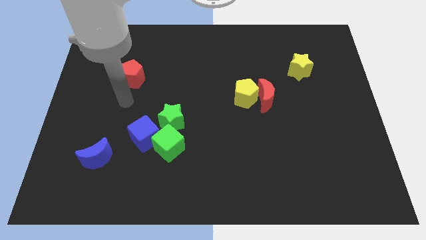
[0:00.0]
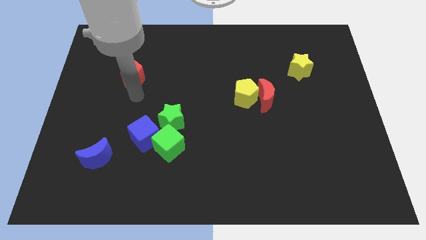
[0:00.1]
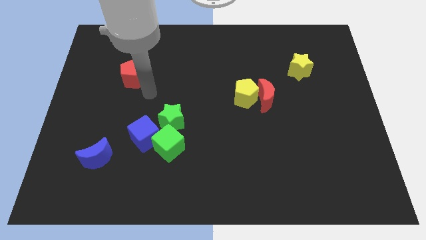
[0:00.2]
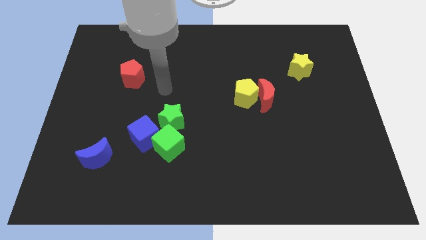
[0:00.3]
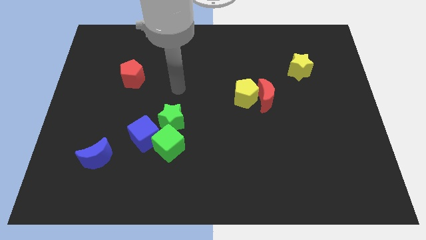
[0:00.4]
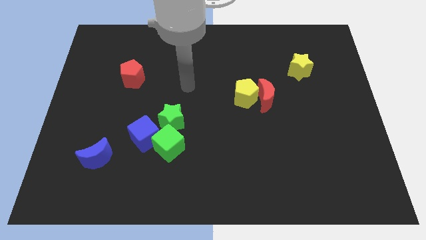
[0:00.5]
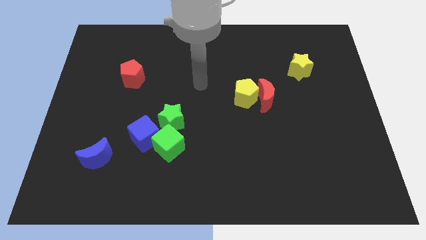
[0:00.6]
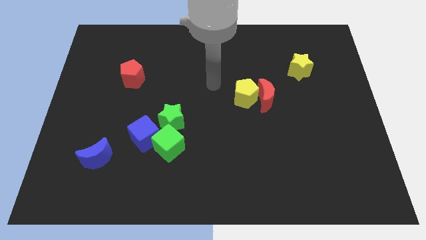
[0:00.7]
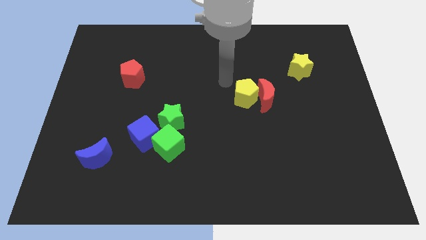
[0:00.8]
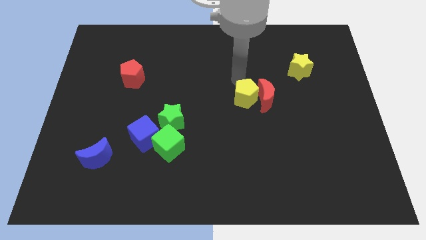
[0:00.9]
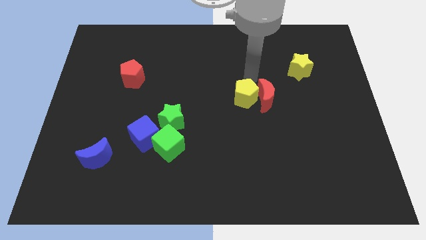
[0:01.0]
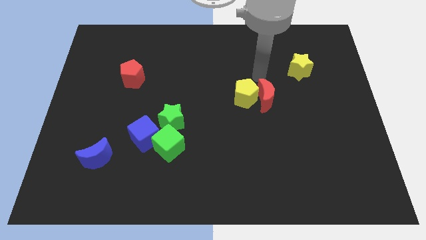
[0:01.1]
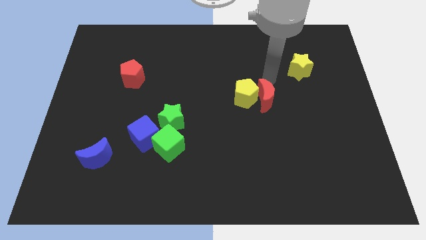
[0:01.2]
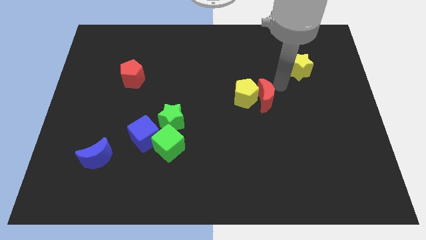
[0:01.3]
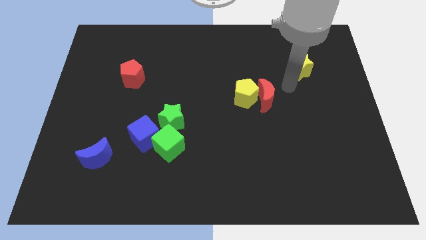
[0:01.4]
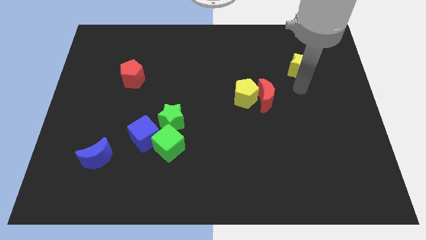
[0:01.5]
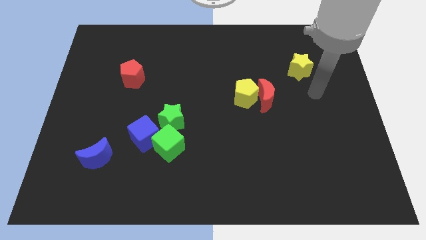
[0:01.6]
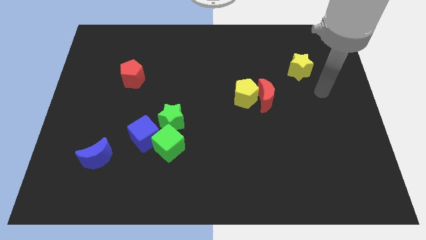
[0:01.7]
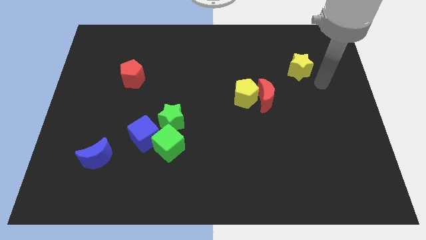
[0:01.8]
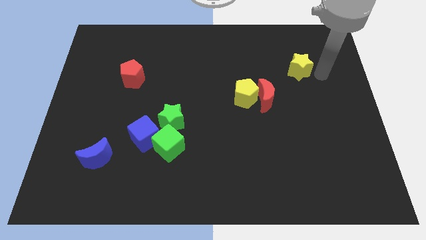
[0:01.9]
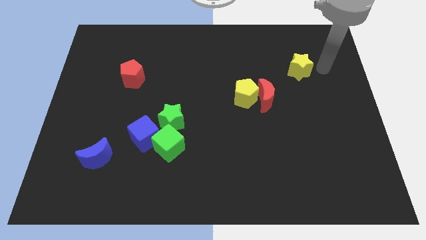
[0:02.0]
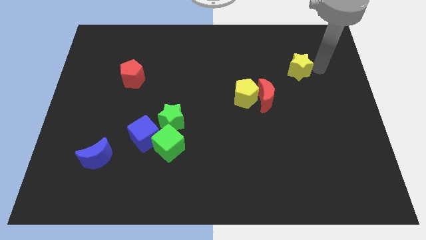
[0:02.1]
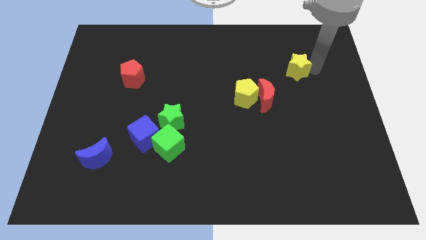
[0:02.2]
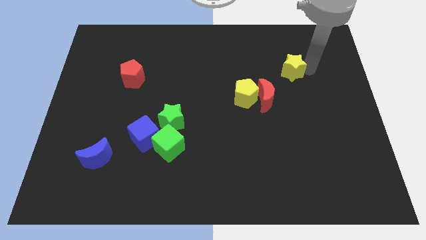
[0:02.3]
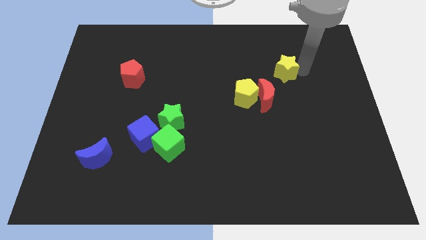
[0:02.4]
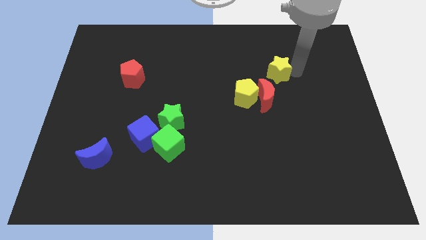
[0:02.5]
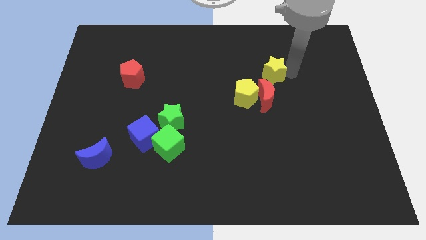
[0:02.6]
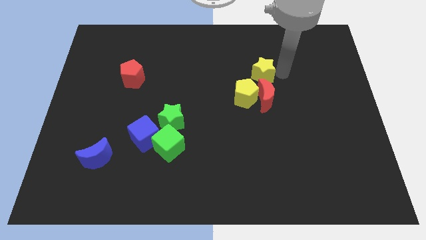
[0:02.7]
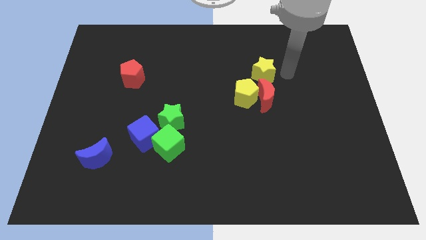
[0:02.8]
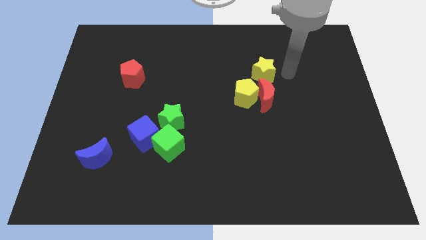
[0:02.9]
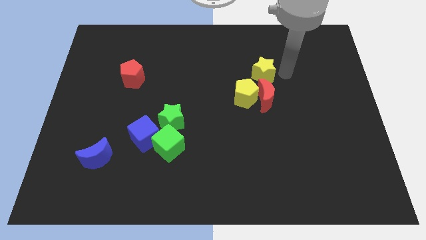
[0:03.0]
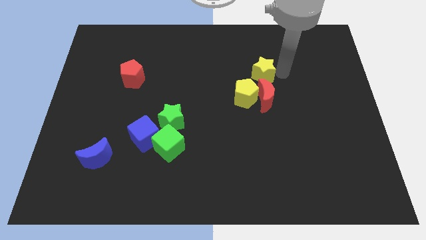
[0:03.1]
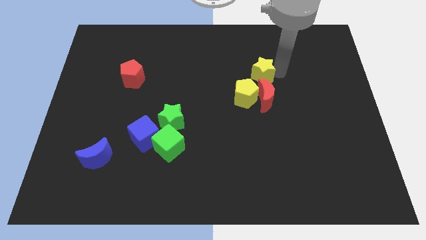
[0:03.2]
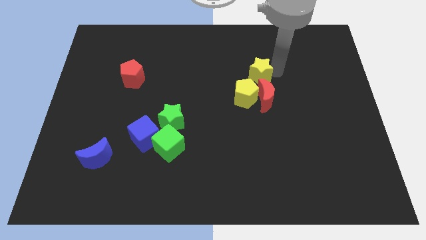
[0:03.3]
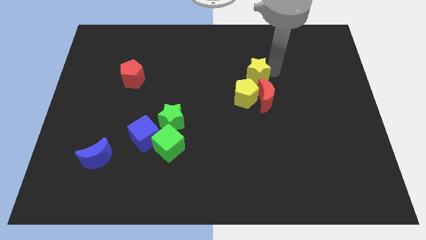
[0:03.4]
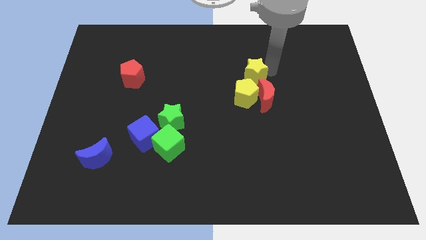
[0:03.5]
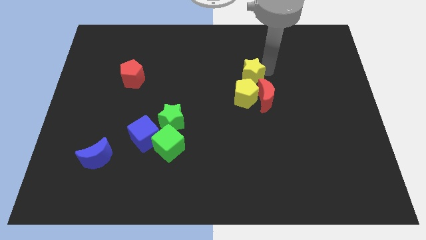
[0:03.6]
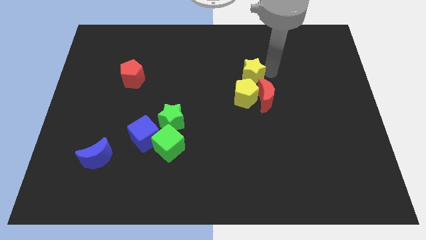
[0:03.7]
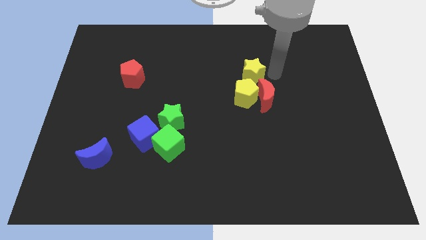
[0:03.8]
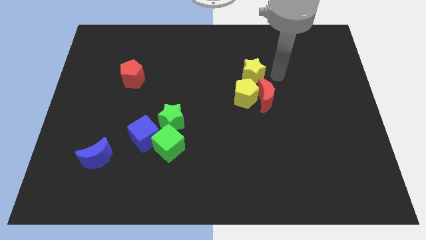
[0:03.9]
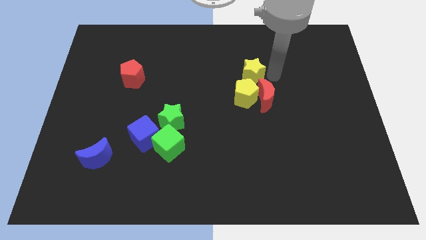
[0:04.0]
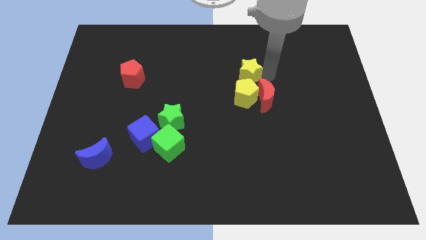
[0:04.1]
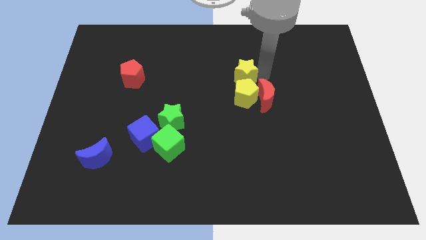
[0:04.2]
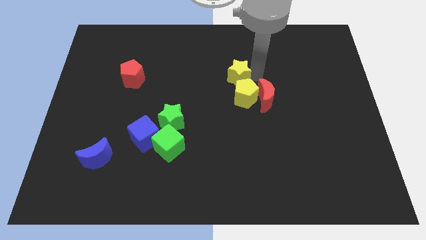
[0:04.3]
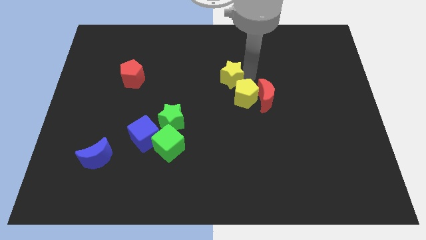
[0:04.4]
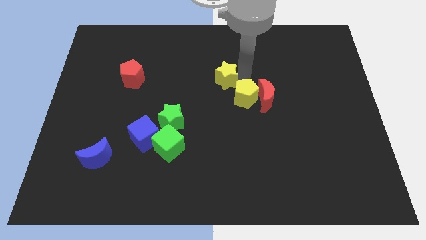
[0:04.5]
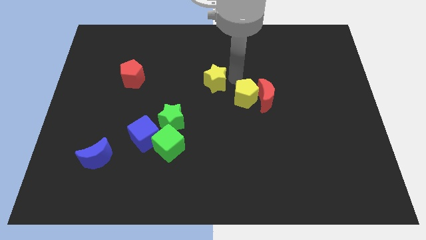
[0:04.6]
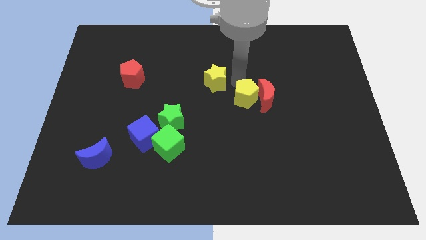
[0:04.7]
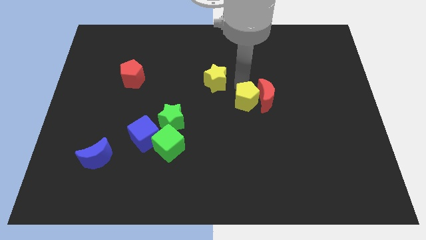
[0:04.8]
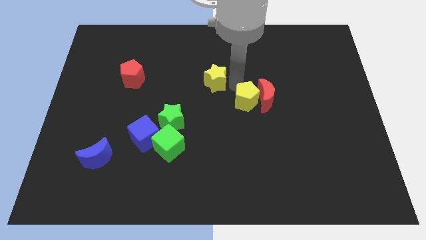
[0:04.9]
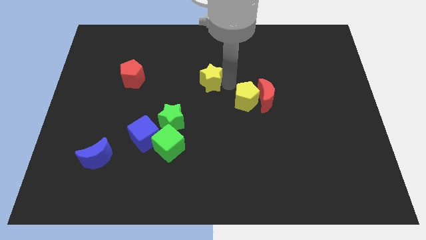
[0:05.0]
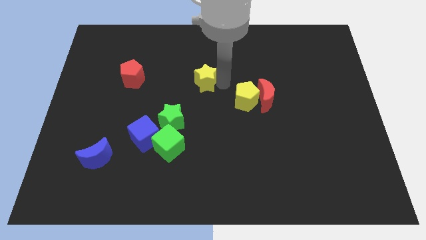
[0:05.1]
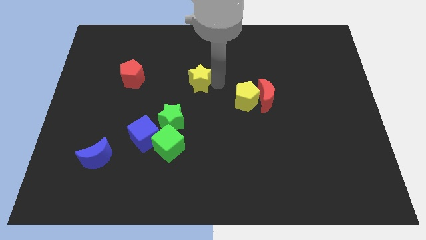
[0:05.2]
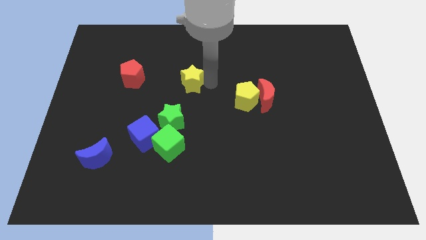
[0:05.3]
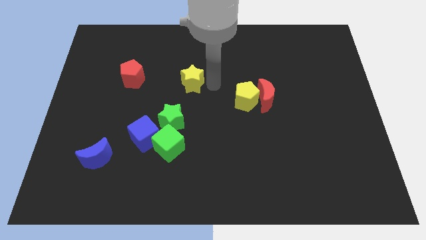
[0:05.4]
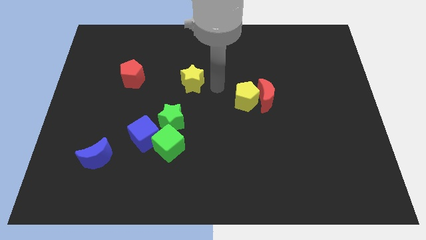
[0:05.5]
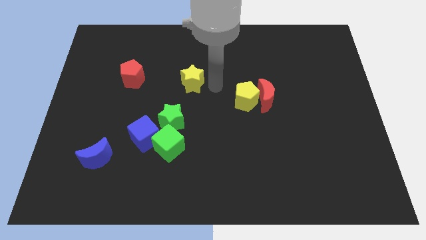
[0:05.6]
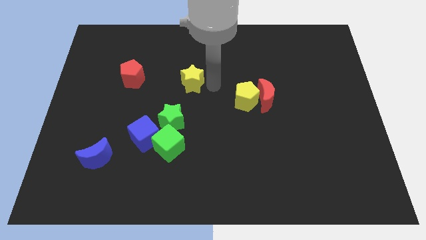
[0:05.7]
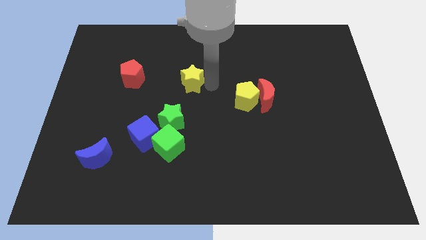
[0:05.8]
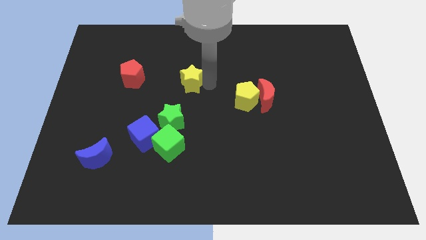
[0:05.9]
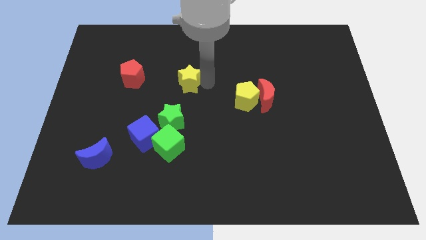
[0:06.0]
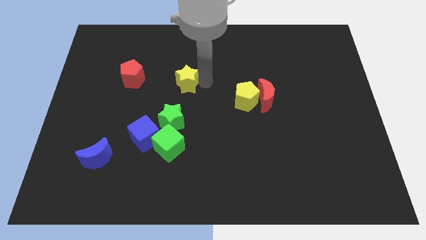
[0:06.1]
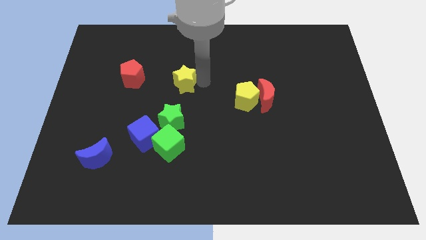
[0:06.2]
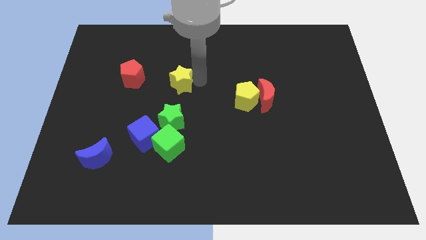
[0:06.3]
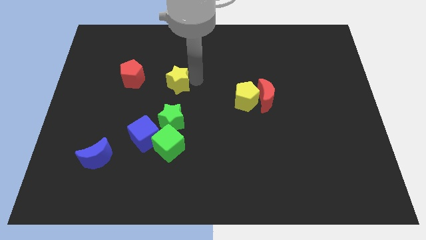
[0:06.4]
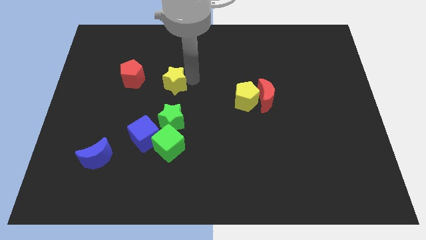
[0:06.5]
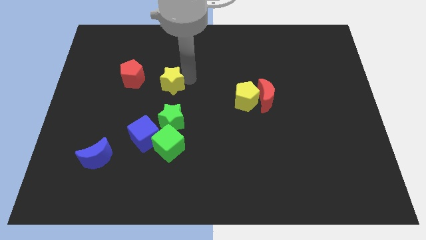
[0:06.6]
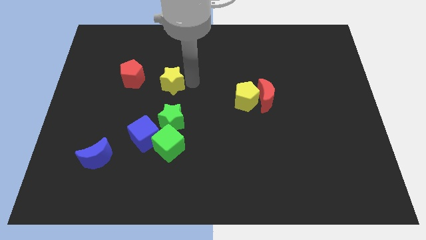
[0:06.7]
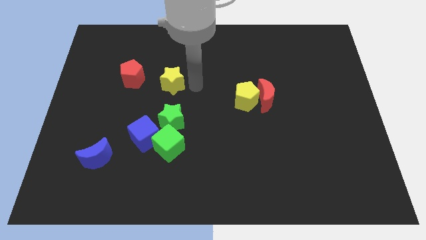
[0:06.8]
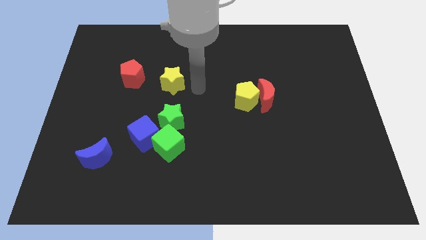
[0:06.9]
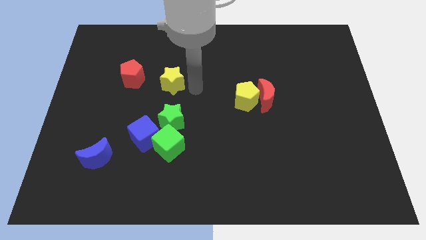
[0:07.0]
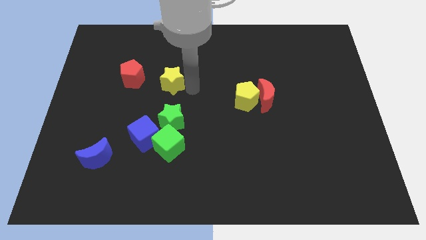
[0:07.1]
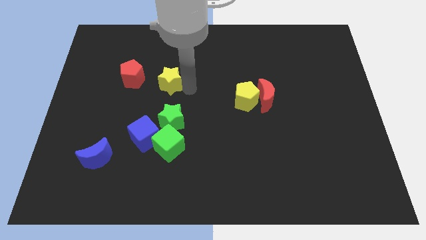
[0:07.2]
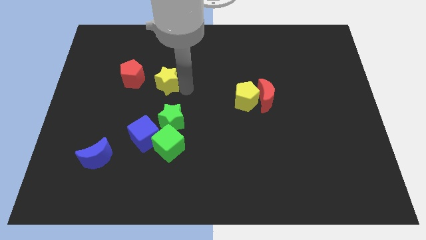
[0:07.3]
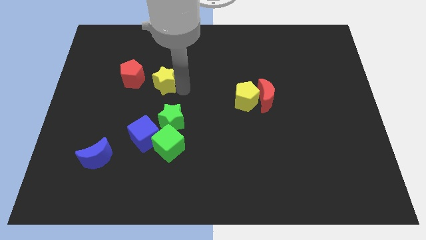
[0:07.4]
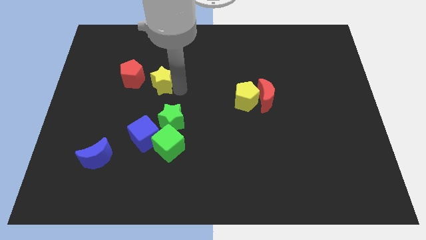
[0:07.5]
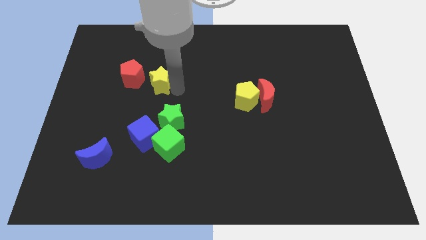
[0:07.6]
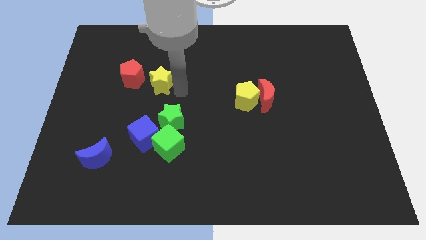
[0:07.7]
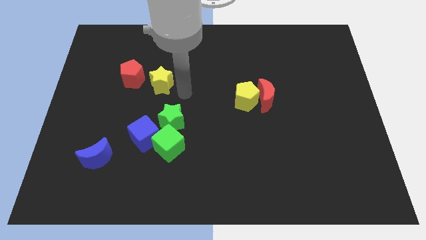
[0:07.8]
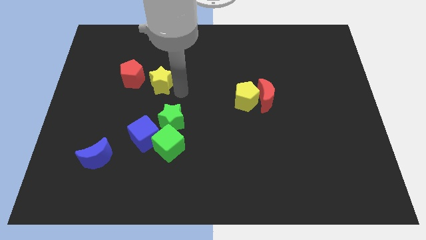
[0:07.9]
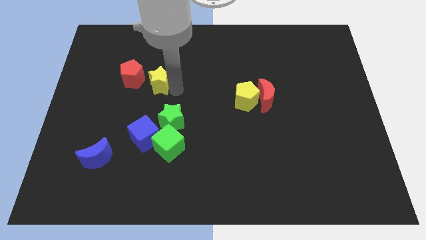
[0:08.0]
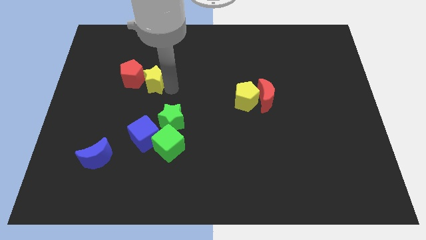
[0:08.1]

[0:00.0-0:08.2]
slide the yellow star to the red pentagon
